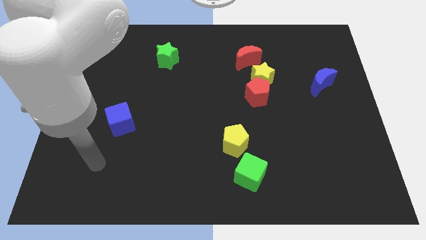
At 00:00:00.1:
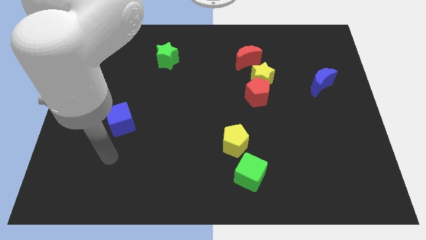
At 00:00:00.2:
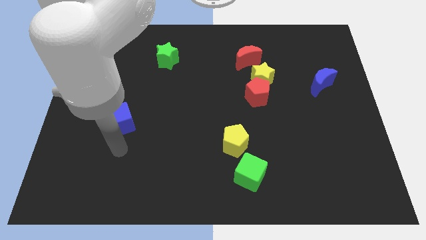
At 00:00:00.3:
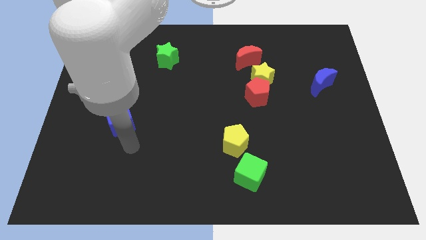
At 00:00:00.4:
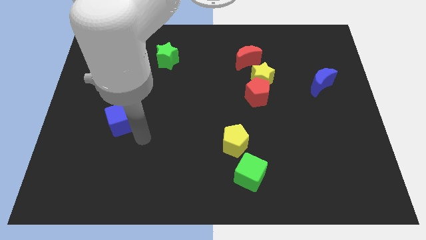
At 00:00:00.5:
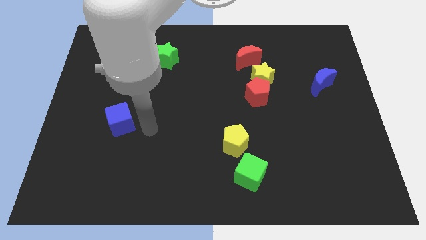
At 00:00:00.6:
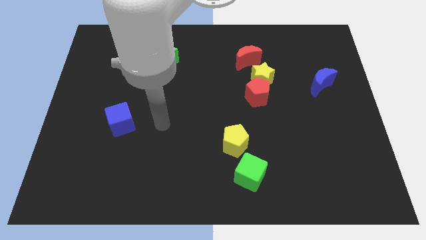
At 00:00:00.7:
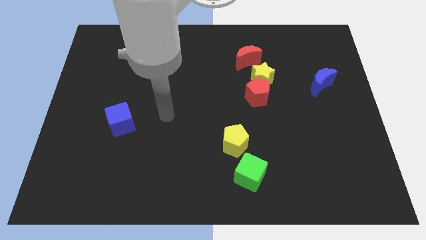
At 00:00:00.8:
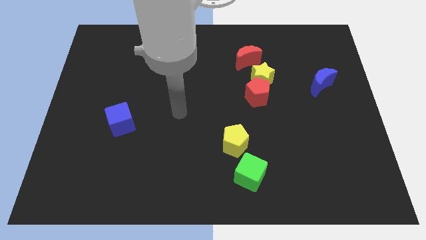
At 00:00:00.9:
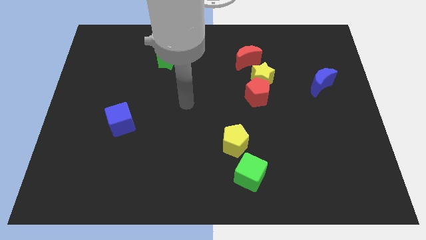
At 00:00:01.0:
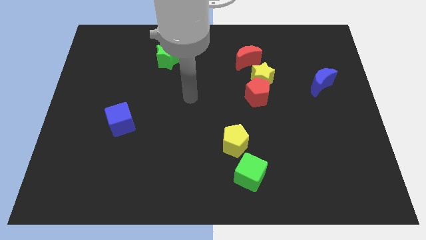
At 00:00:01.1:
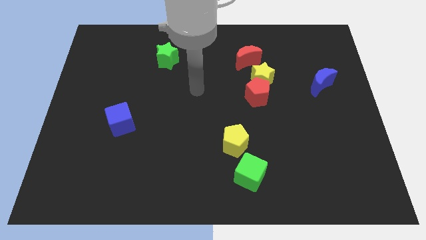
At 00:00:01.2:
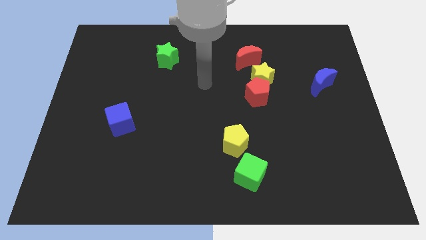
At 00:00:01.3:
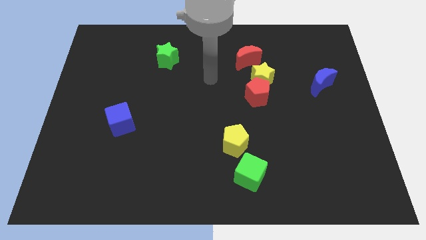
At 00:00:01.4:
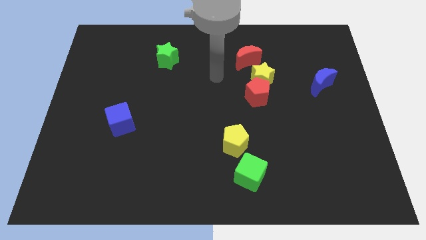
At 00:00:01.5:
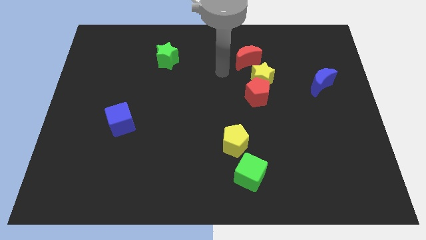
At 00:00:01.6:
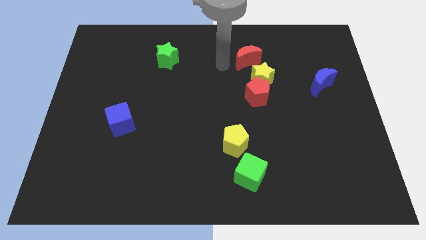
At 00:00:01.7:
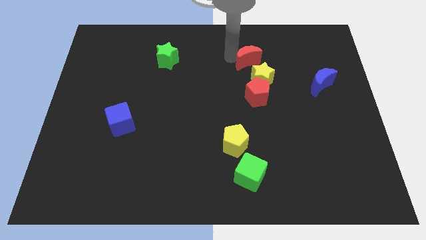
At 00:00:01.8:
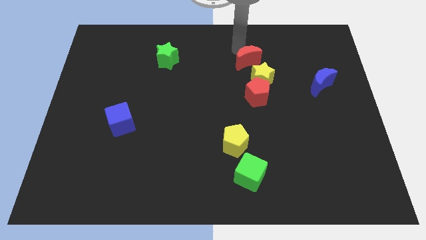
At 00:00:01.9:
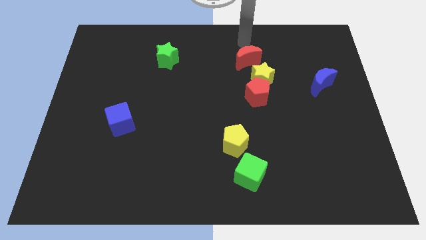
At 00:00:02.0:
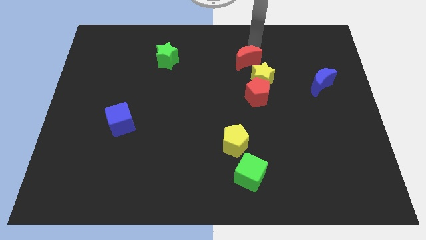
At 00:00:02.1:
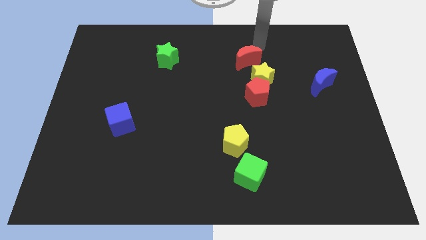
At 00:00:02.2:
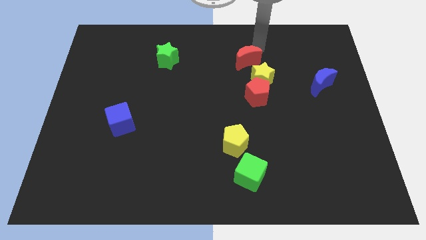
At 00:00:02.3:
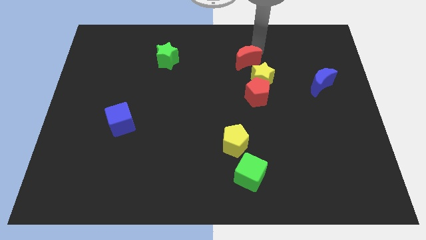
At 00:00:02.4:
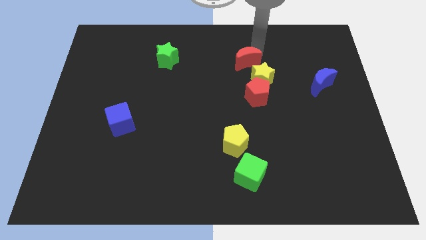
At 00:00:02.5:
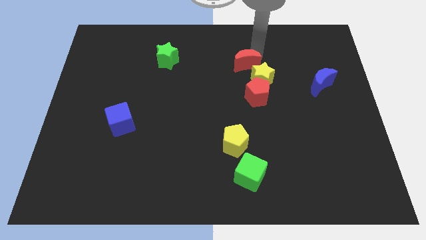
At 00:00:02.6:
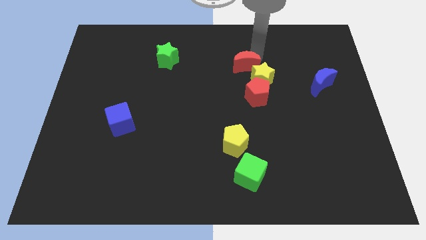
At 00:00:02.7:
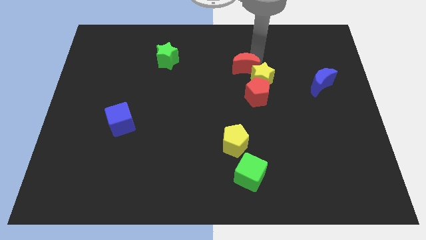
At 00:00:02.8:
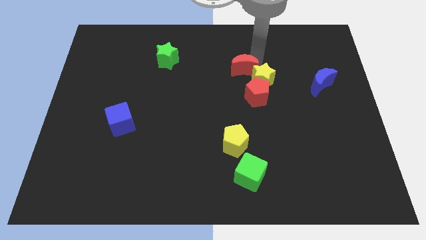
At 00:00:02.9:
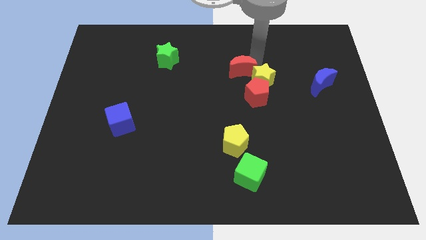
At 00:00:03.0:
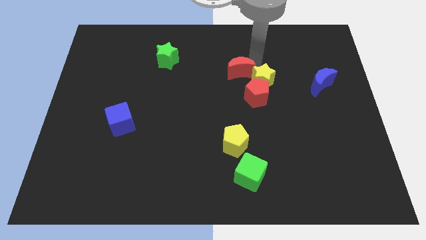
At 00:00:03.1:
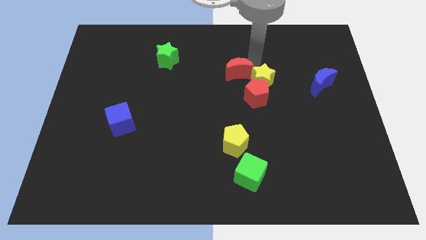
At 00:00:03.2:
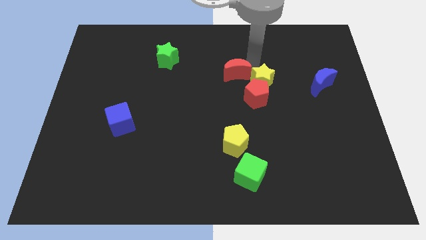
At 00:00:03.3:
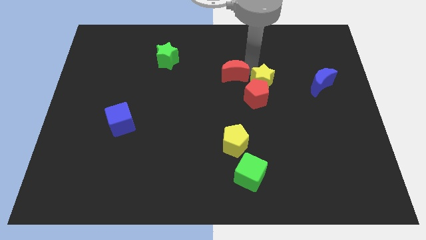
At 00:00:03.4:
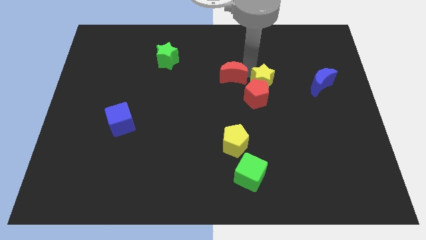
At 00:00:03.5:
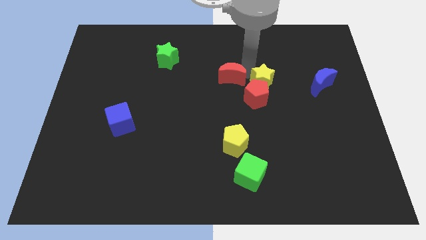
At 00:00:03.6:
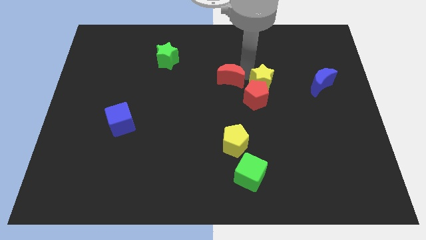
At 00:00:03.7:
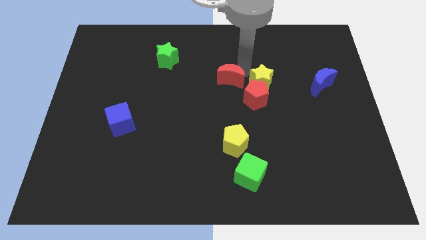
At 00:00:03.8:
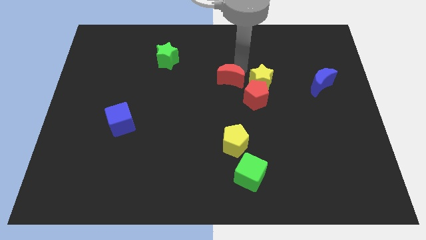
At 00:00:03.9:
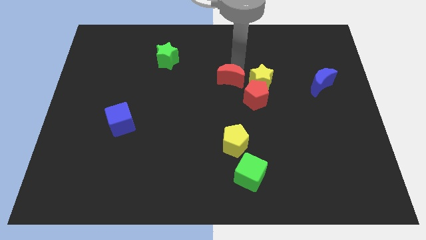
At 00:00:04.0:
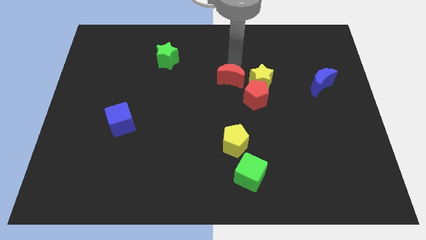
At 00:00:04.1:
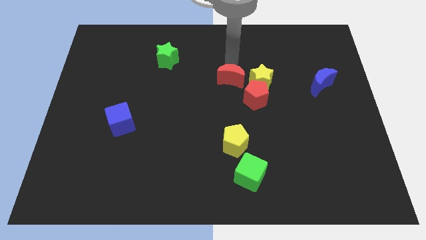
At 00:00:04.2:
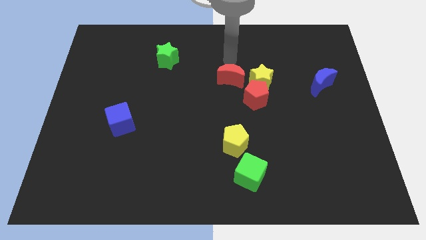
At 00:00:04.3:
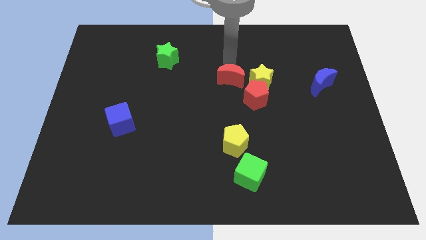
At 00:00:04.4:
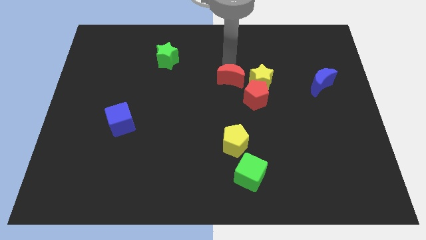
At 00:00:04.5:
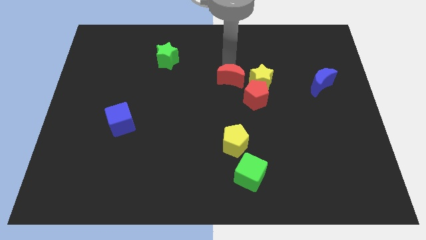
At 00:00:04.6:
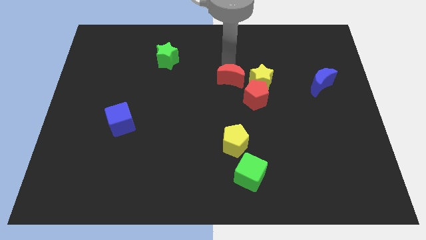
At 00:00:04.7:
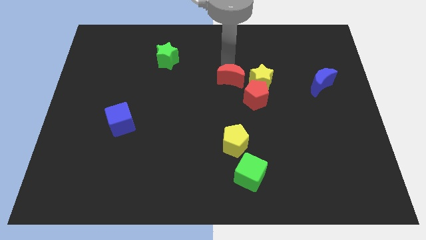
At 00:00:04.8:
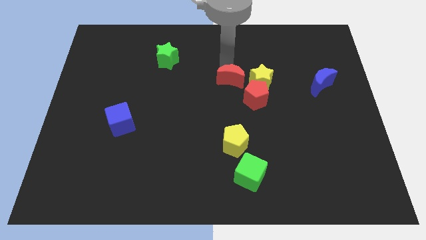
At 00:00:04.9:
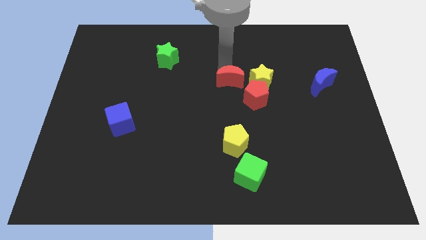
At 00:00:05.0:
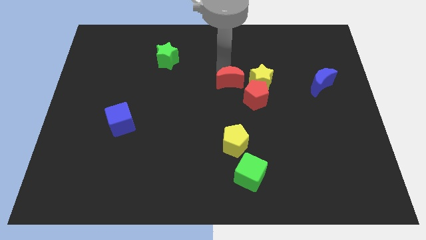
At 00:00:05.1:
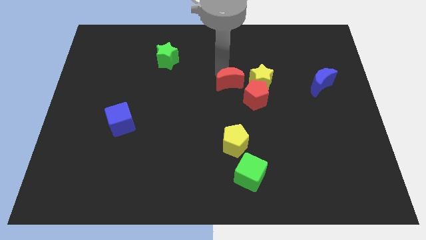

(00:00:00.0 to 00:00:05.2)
push the red moon a little bit down

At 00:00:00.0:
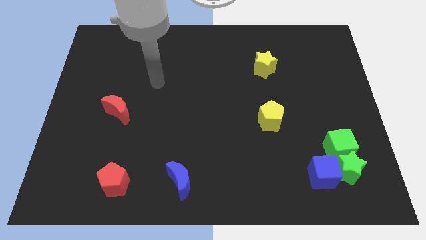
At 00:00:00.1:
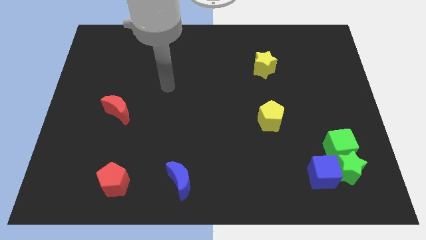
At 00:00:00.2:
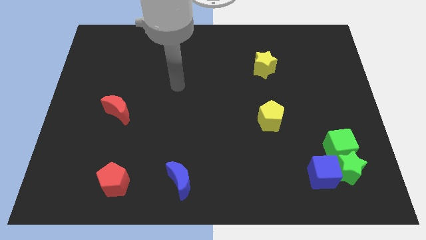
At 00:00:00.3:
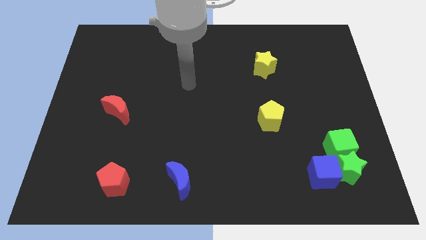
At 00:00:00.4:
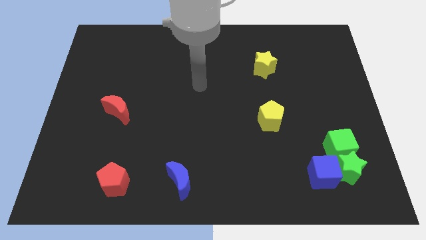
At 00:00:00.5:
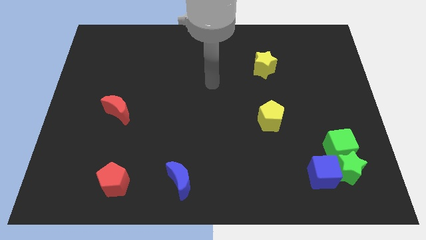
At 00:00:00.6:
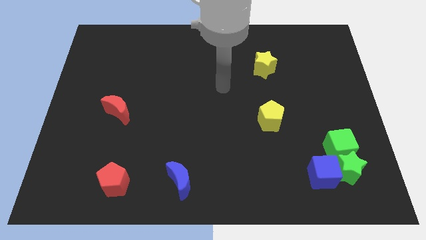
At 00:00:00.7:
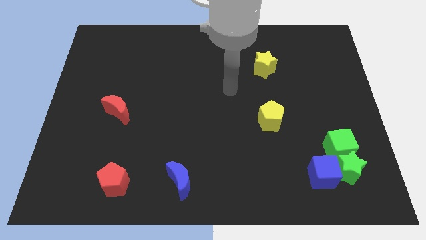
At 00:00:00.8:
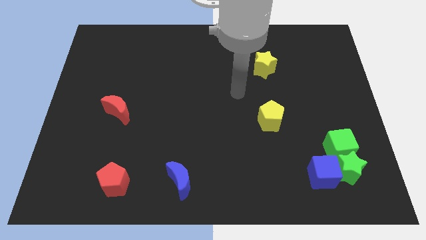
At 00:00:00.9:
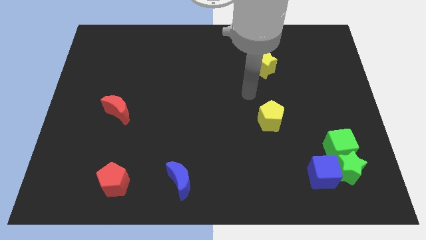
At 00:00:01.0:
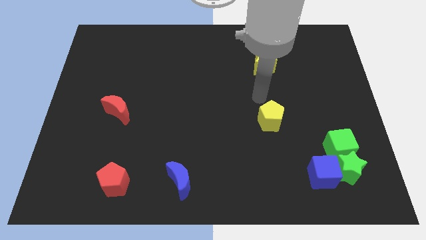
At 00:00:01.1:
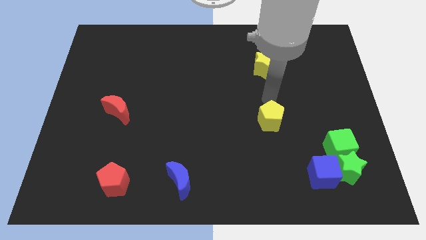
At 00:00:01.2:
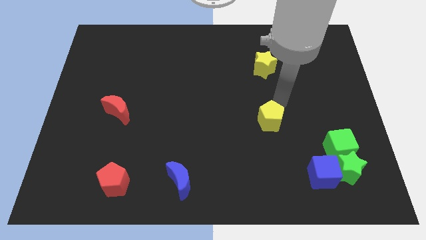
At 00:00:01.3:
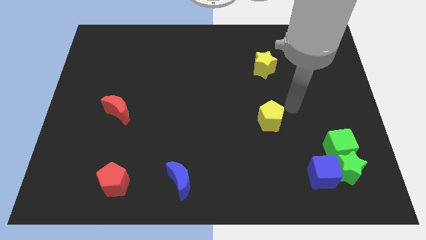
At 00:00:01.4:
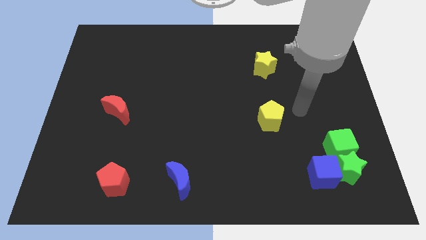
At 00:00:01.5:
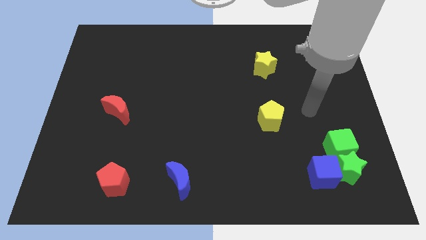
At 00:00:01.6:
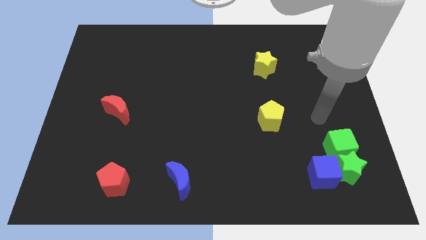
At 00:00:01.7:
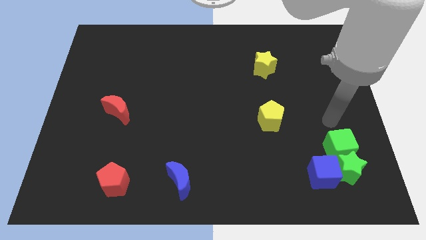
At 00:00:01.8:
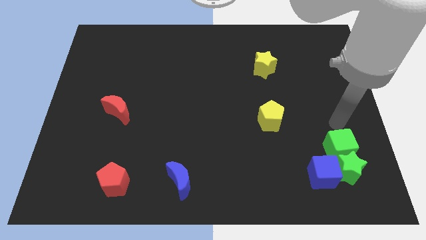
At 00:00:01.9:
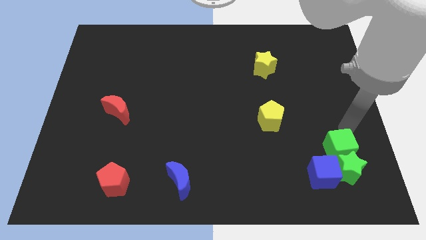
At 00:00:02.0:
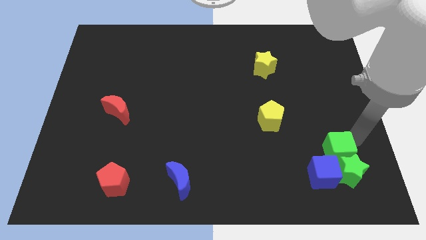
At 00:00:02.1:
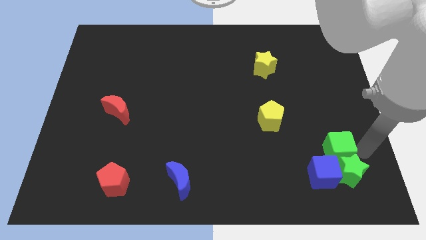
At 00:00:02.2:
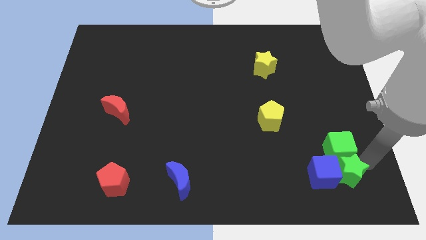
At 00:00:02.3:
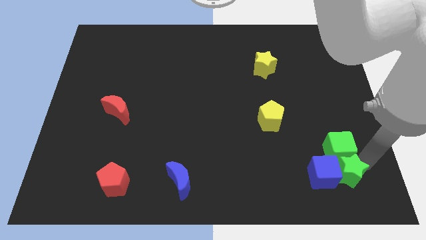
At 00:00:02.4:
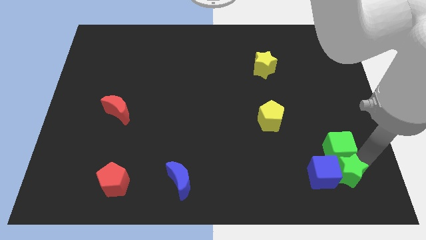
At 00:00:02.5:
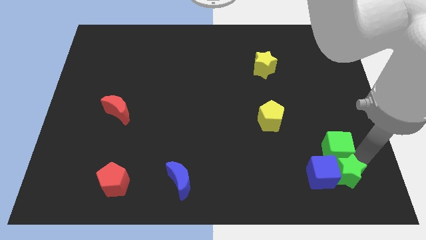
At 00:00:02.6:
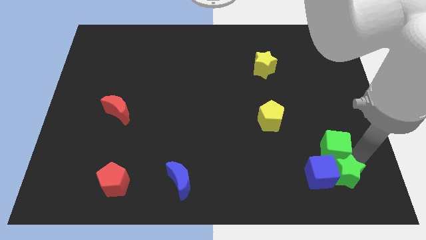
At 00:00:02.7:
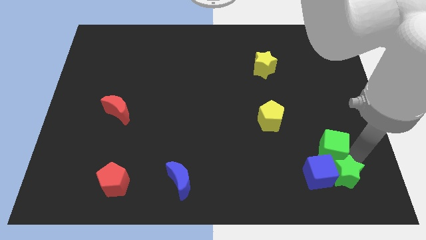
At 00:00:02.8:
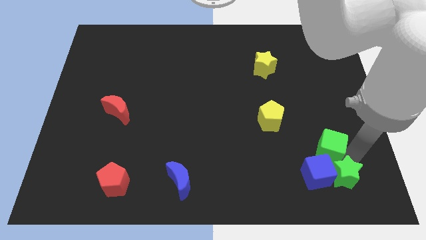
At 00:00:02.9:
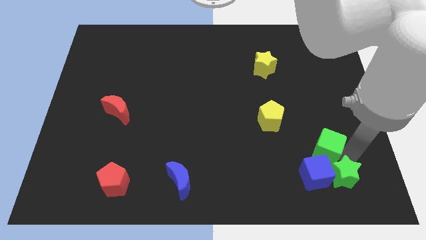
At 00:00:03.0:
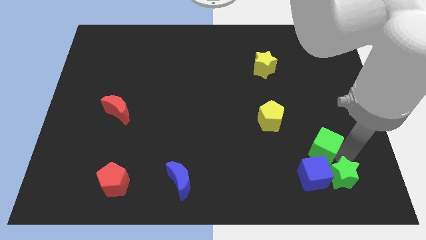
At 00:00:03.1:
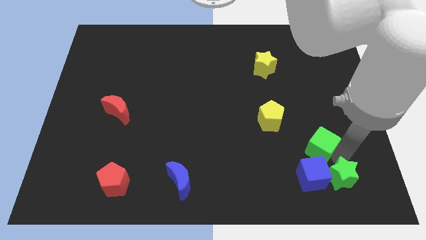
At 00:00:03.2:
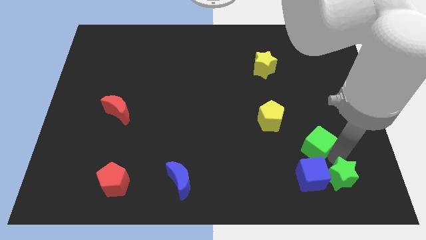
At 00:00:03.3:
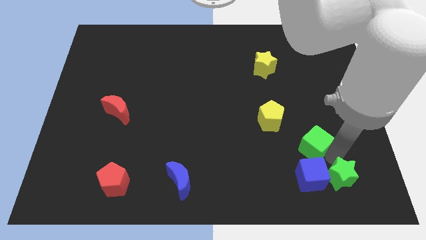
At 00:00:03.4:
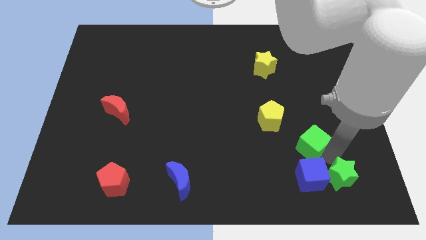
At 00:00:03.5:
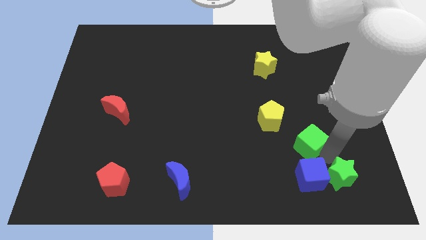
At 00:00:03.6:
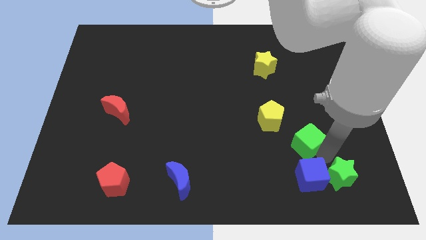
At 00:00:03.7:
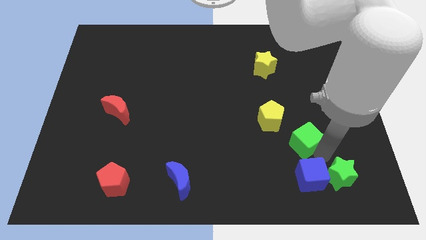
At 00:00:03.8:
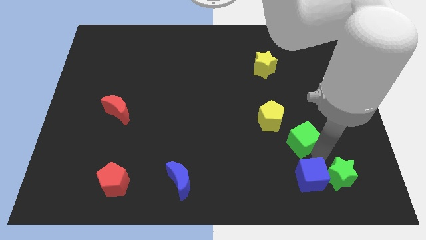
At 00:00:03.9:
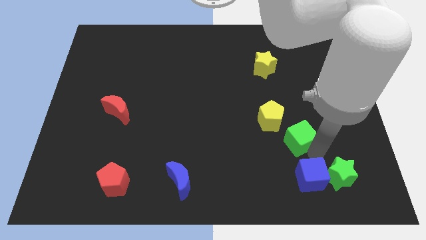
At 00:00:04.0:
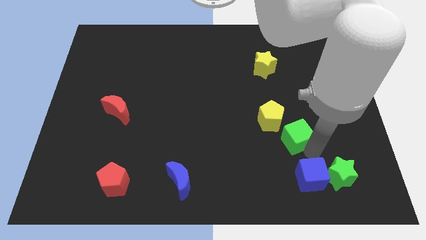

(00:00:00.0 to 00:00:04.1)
slightly slide the green cube upwards and then left
